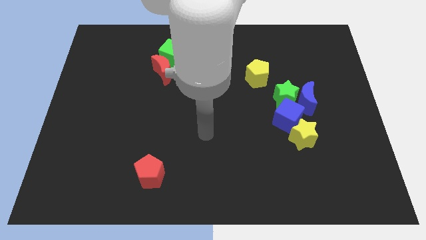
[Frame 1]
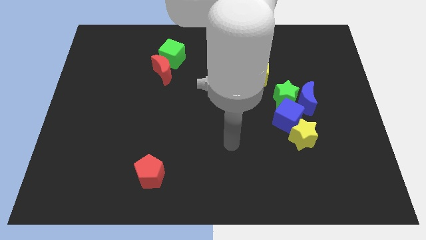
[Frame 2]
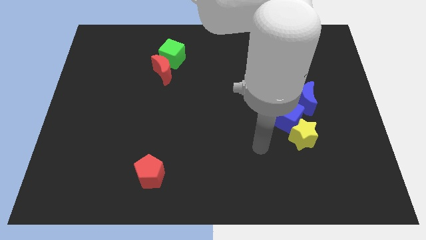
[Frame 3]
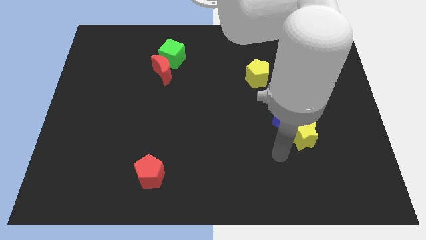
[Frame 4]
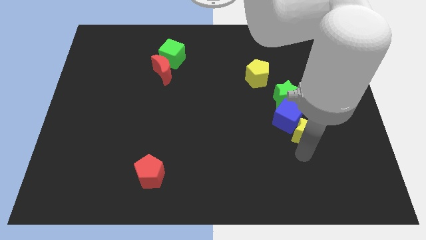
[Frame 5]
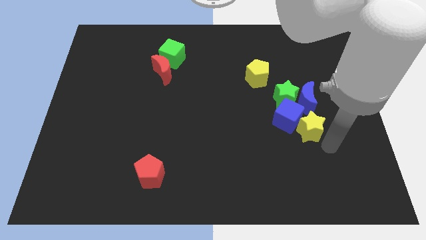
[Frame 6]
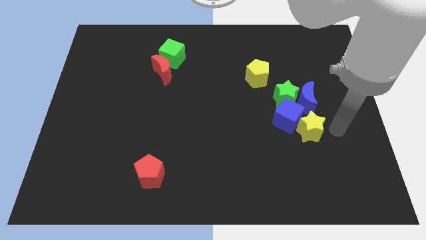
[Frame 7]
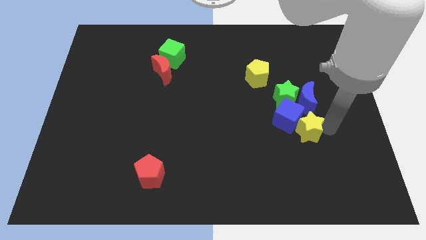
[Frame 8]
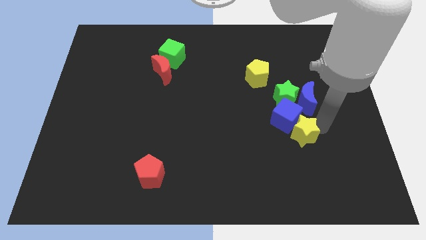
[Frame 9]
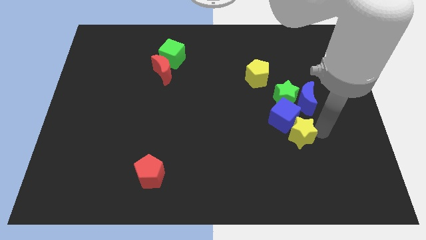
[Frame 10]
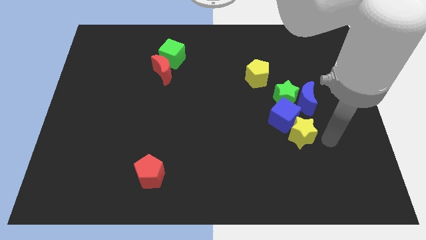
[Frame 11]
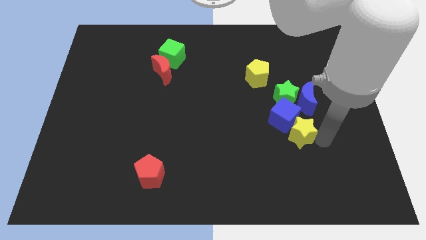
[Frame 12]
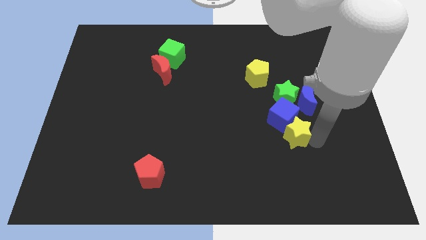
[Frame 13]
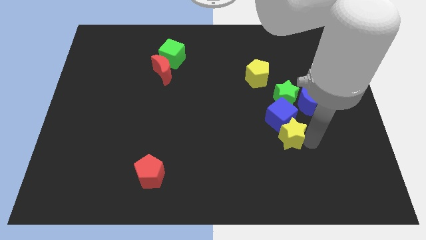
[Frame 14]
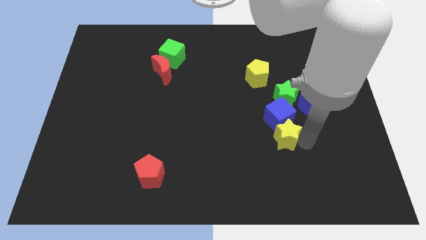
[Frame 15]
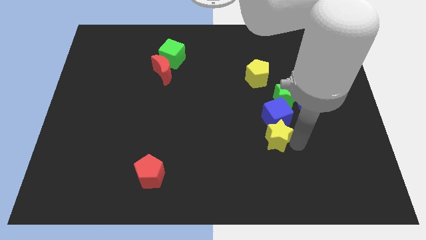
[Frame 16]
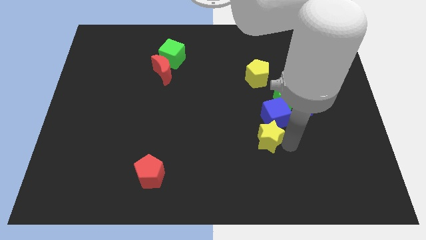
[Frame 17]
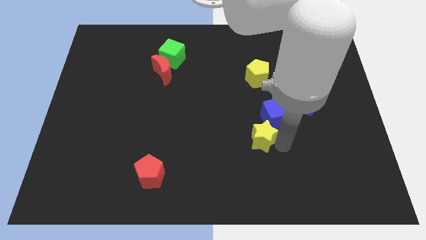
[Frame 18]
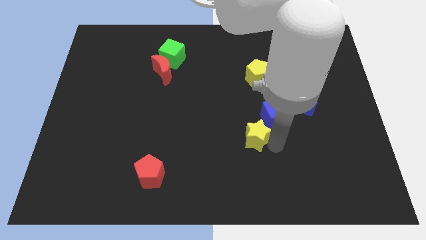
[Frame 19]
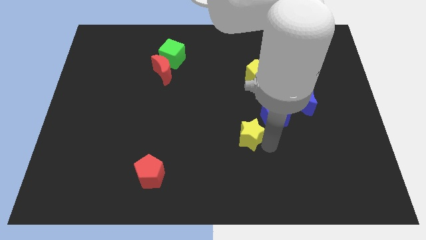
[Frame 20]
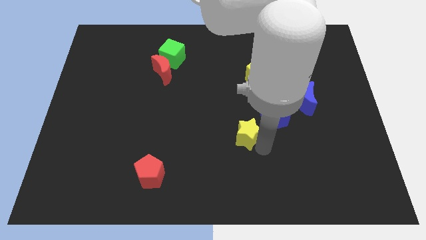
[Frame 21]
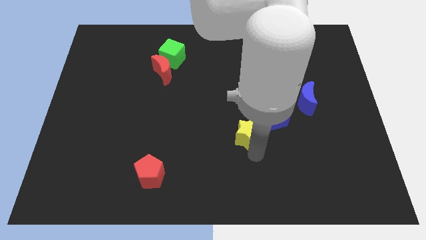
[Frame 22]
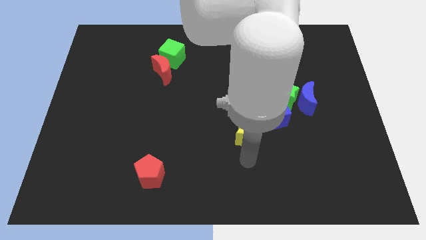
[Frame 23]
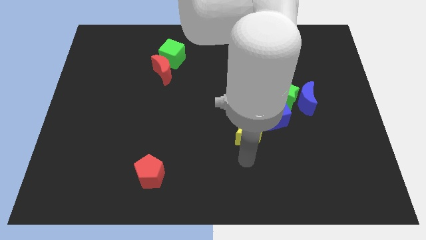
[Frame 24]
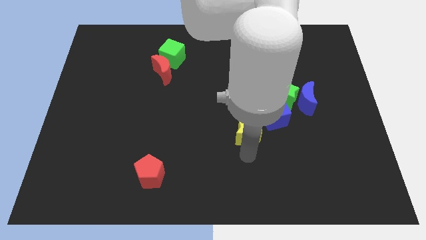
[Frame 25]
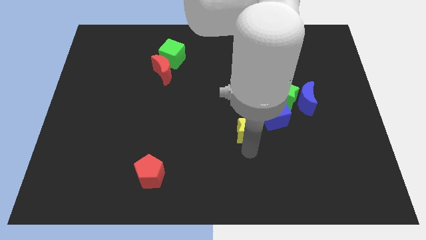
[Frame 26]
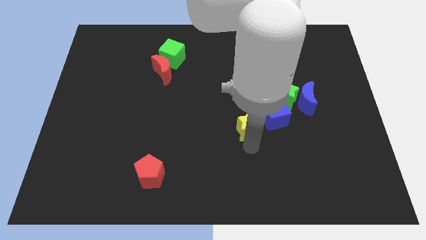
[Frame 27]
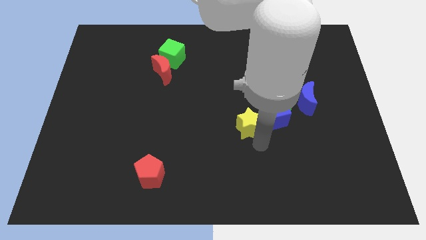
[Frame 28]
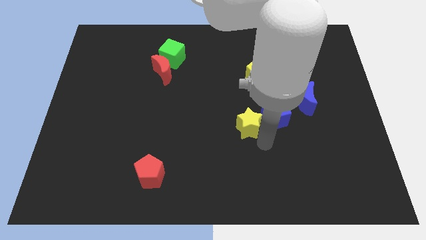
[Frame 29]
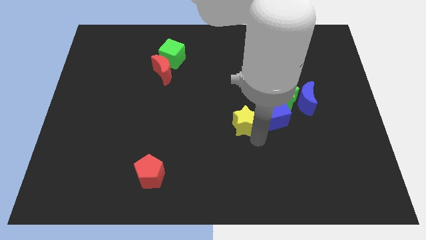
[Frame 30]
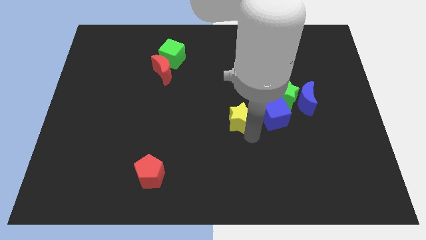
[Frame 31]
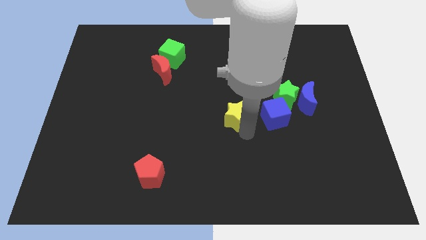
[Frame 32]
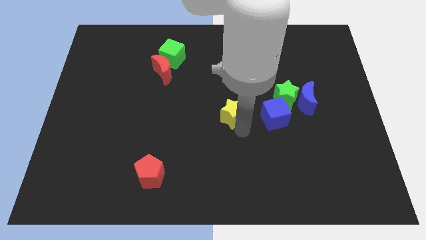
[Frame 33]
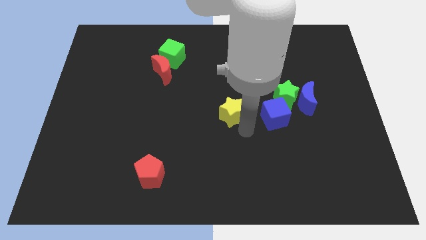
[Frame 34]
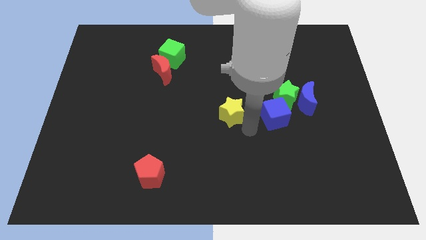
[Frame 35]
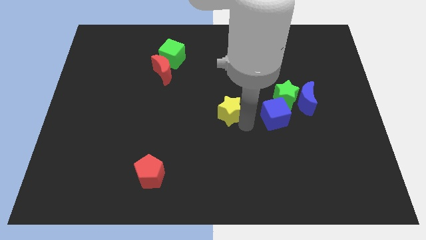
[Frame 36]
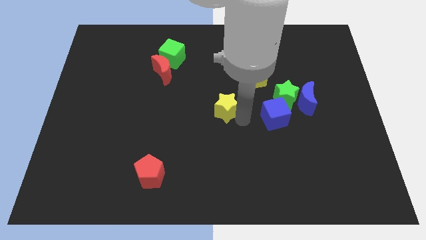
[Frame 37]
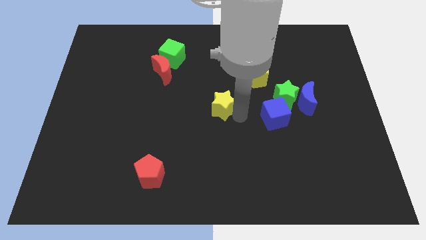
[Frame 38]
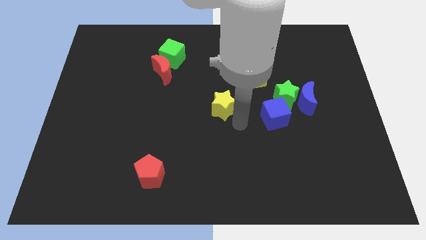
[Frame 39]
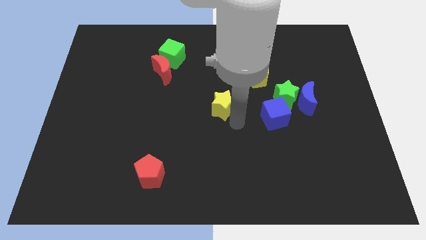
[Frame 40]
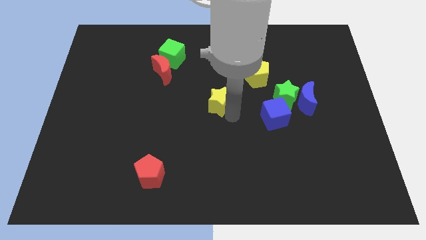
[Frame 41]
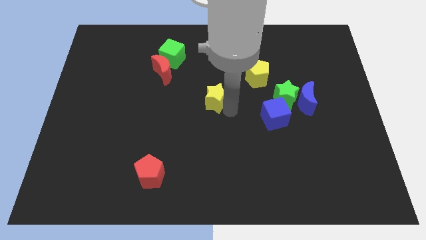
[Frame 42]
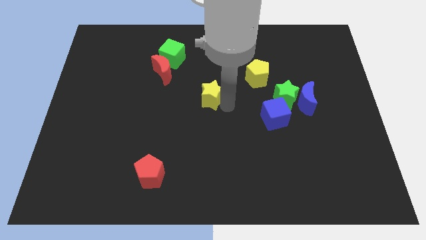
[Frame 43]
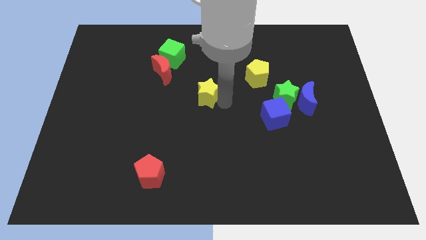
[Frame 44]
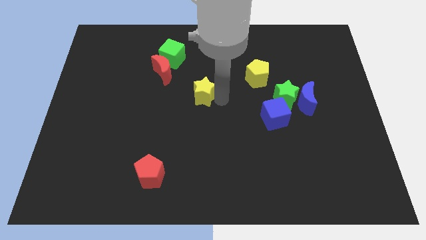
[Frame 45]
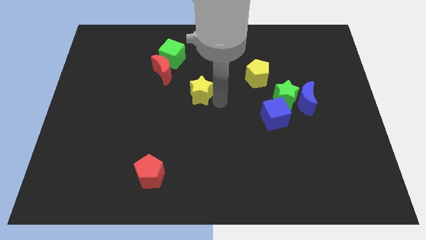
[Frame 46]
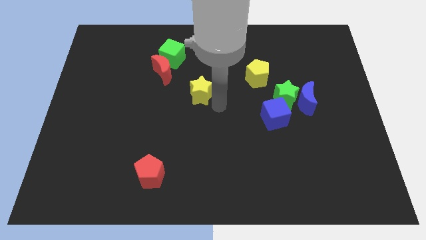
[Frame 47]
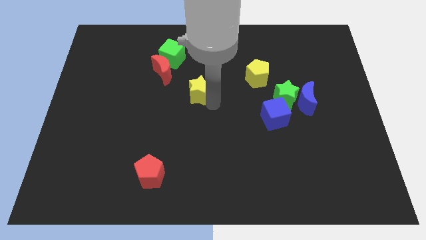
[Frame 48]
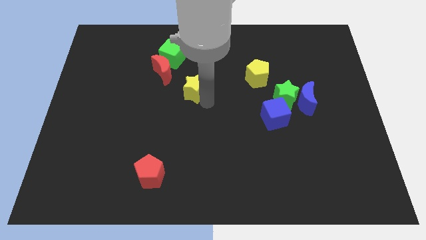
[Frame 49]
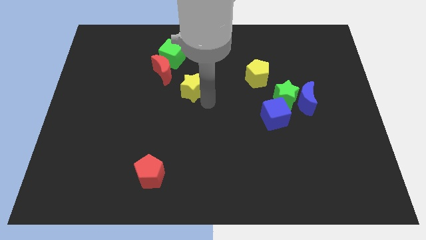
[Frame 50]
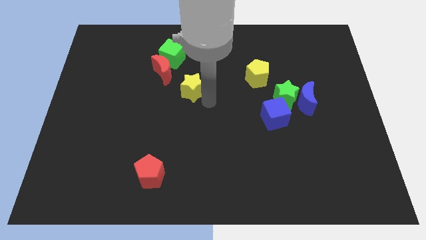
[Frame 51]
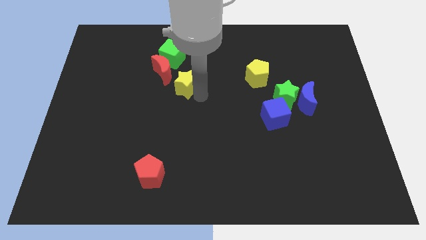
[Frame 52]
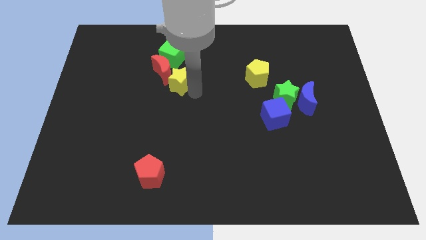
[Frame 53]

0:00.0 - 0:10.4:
move the yellow star next to the red moon

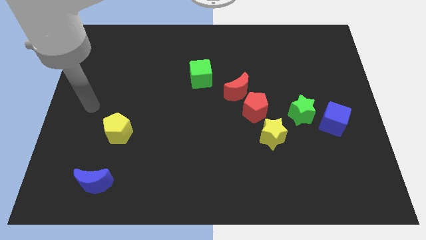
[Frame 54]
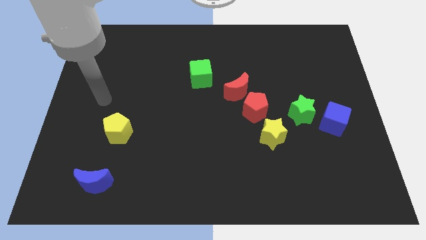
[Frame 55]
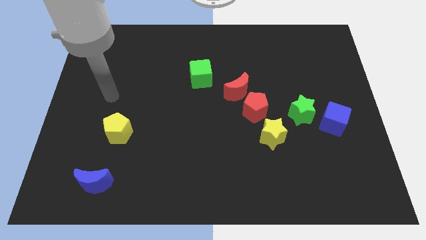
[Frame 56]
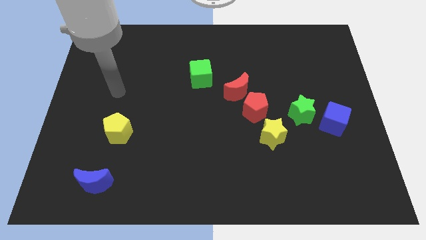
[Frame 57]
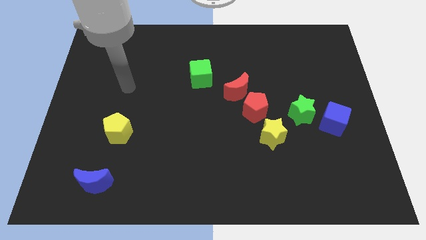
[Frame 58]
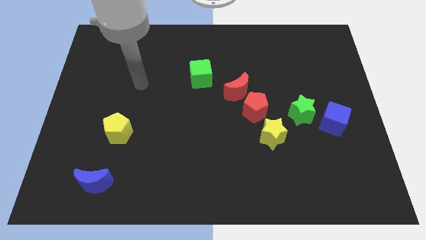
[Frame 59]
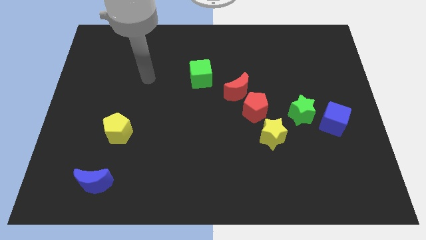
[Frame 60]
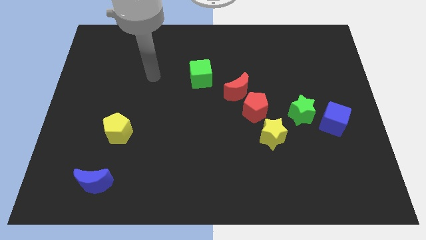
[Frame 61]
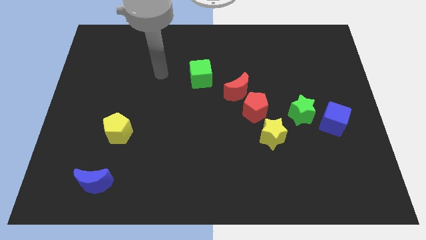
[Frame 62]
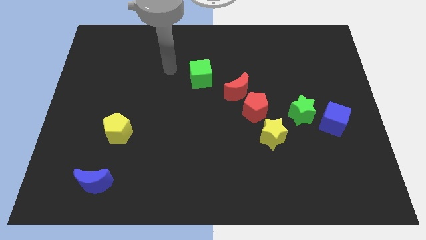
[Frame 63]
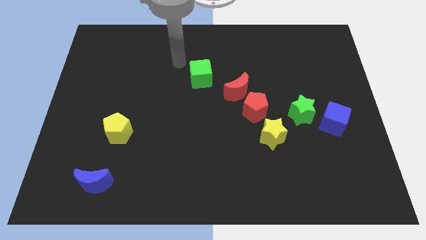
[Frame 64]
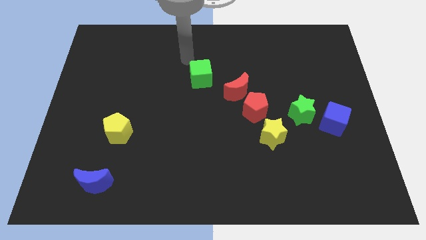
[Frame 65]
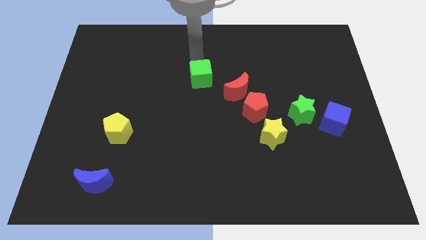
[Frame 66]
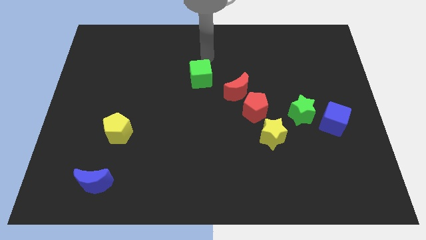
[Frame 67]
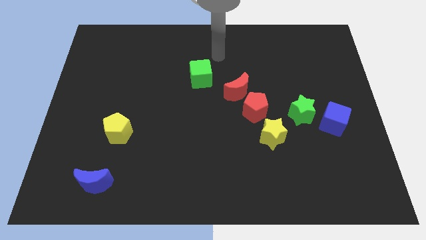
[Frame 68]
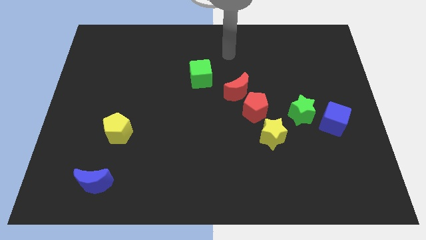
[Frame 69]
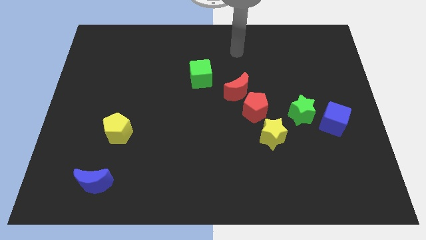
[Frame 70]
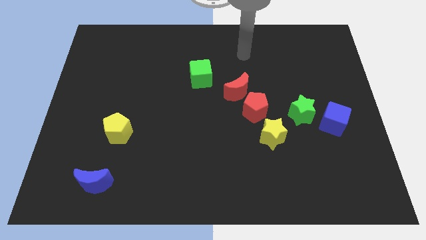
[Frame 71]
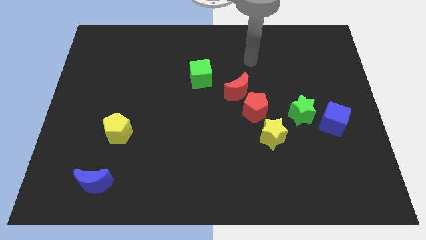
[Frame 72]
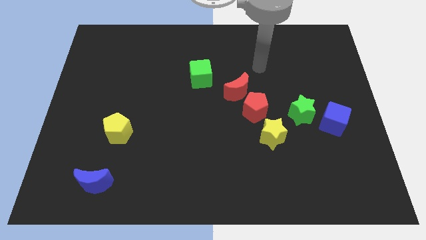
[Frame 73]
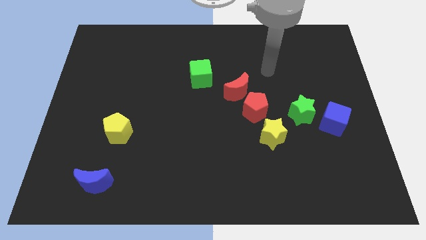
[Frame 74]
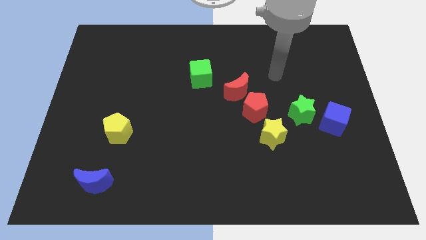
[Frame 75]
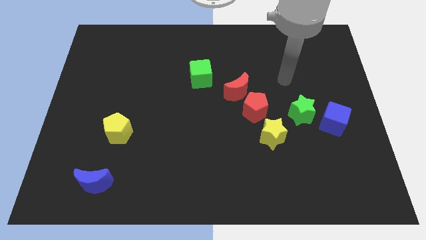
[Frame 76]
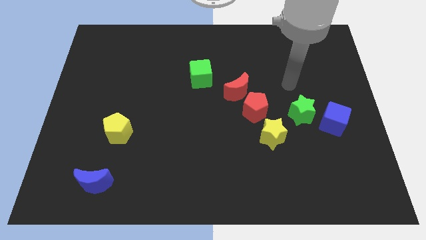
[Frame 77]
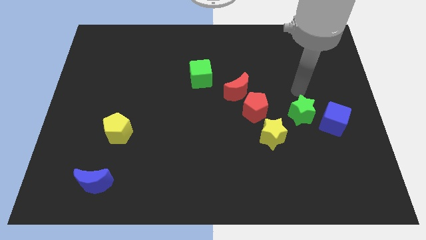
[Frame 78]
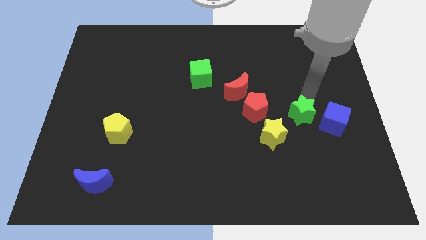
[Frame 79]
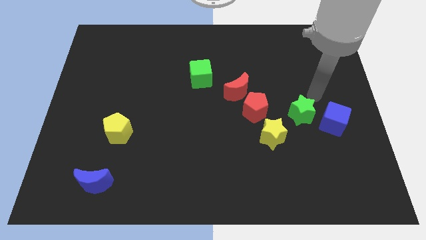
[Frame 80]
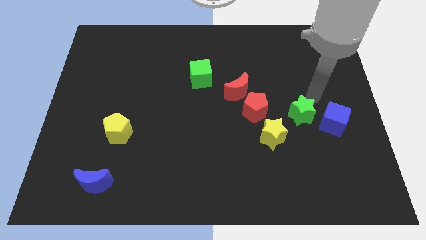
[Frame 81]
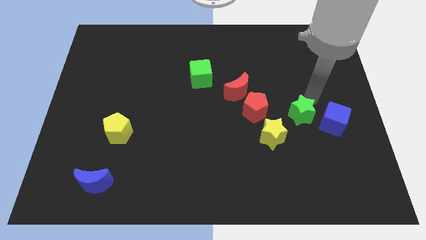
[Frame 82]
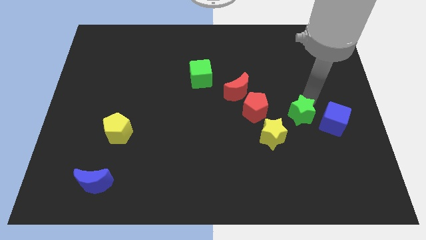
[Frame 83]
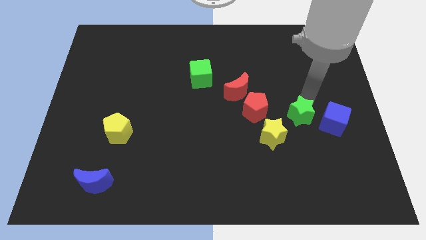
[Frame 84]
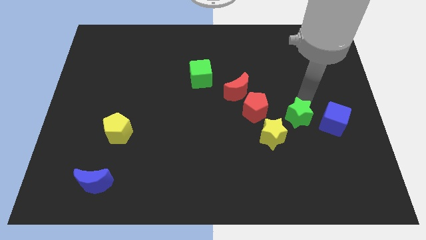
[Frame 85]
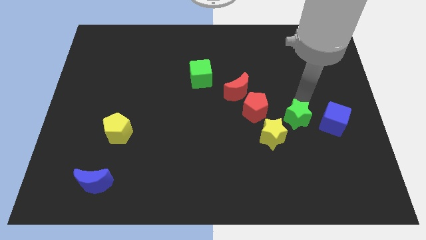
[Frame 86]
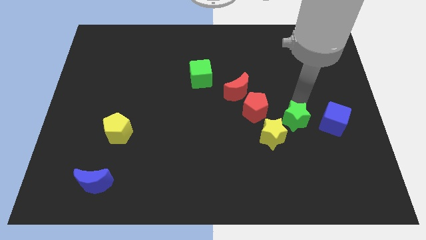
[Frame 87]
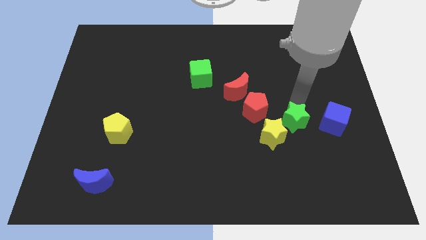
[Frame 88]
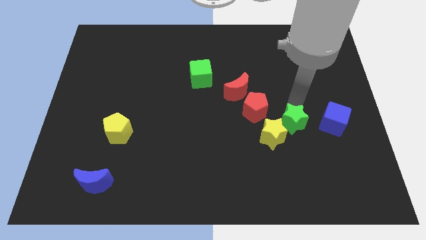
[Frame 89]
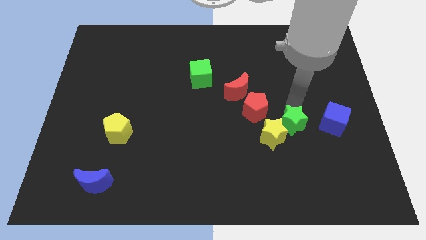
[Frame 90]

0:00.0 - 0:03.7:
slide the green star close to the yellow star
